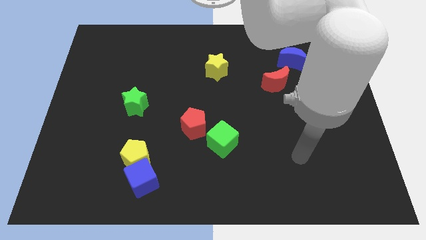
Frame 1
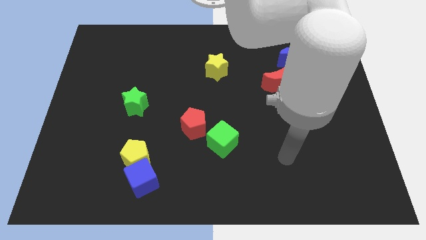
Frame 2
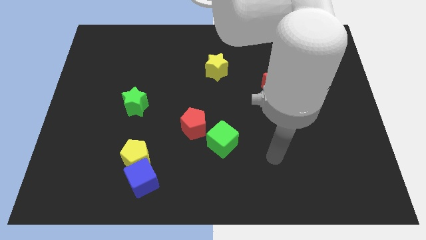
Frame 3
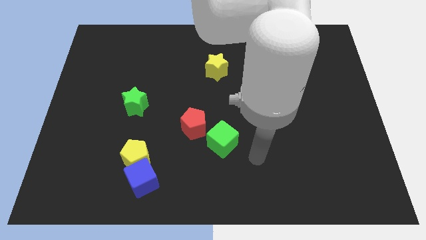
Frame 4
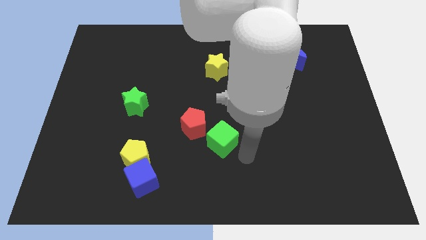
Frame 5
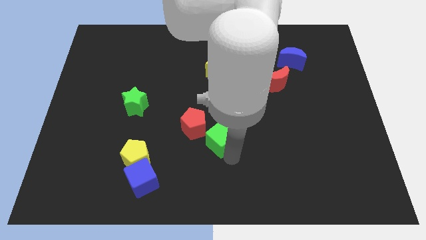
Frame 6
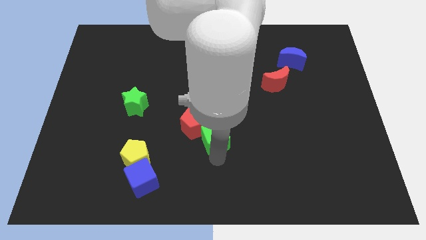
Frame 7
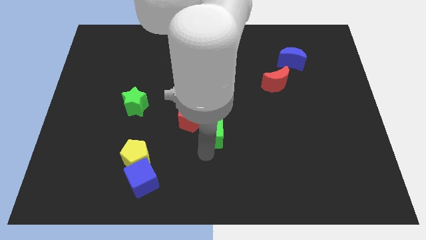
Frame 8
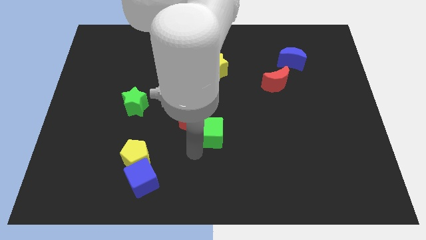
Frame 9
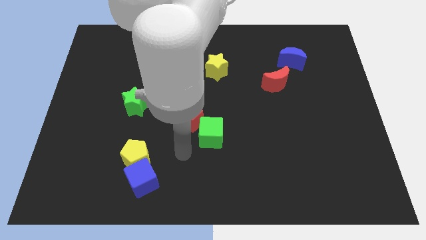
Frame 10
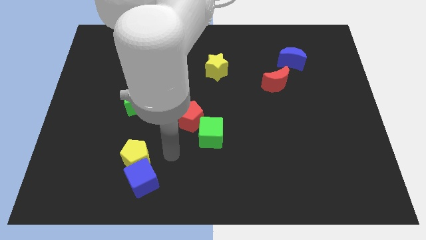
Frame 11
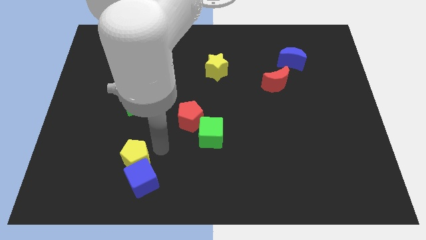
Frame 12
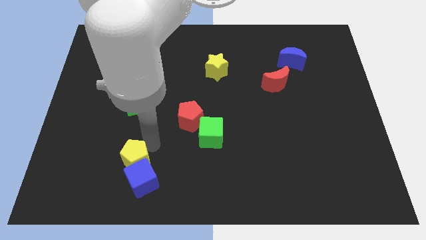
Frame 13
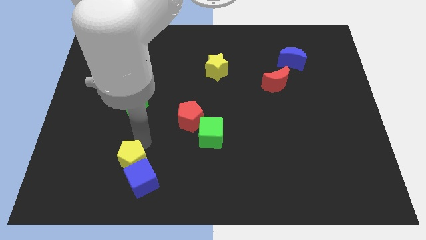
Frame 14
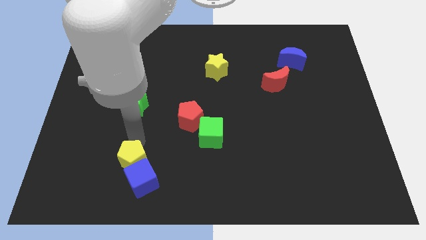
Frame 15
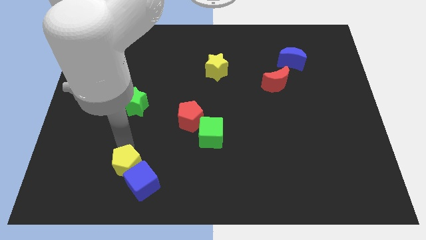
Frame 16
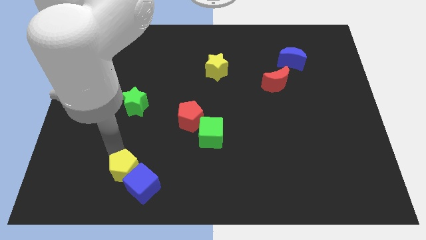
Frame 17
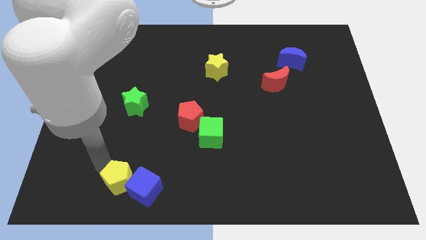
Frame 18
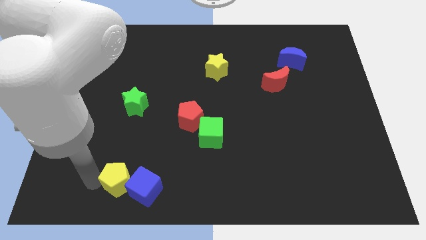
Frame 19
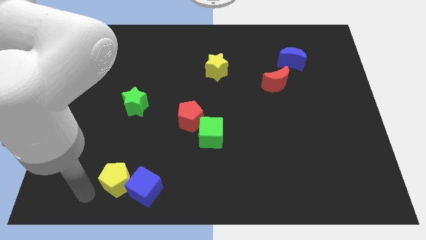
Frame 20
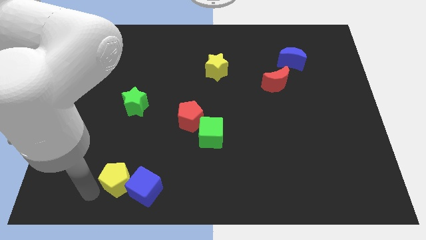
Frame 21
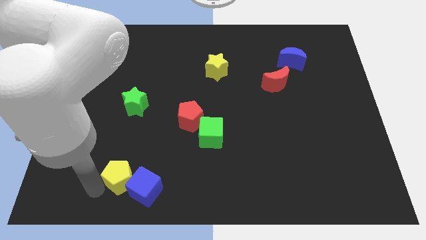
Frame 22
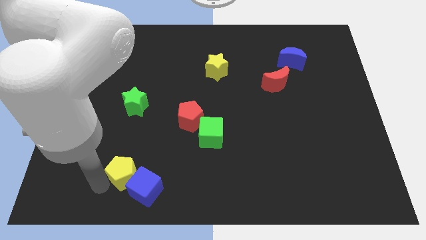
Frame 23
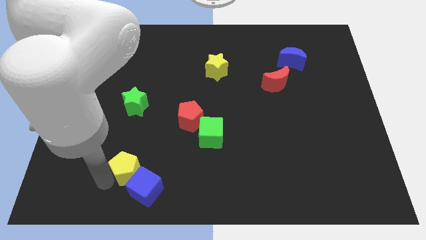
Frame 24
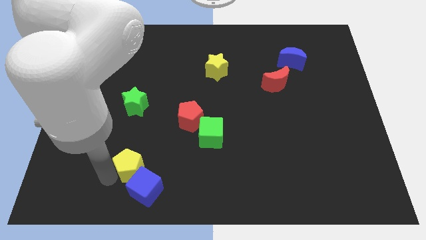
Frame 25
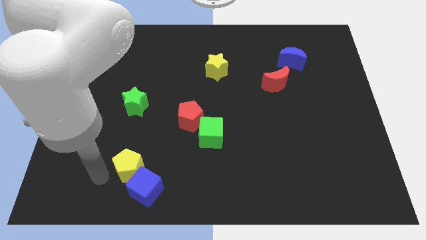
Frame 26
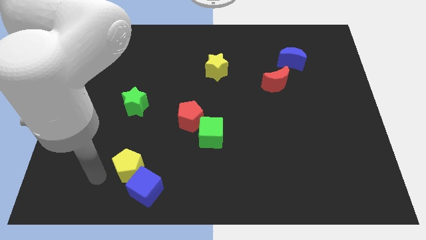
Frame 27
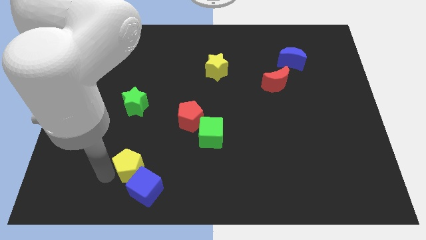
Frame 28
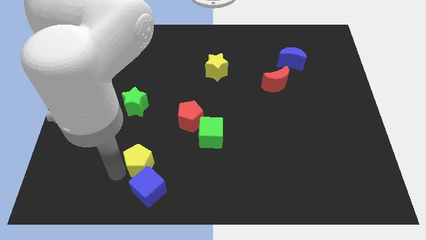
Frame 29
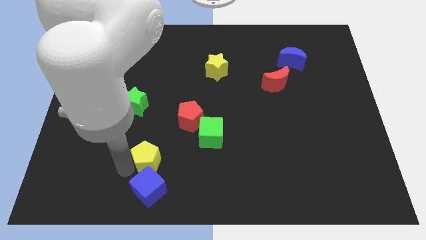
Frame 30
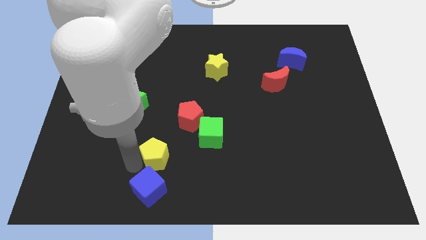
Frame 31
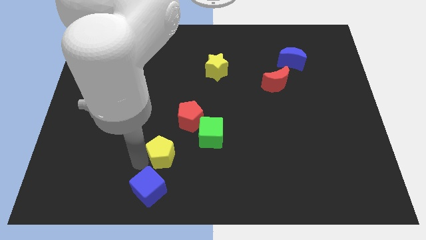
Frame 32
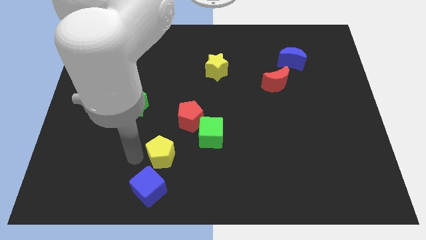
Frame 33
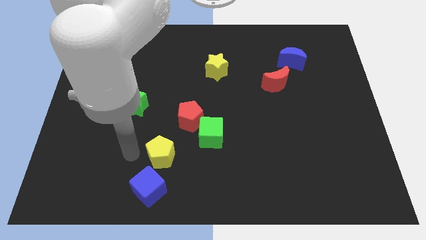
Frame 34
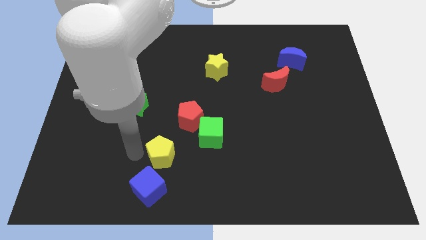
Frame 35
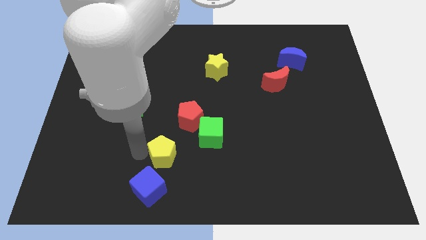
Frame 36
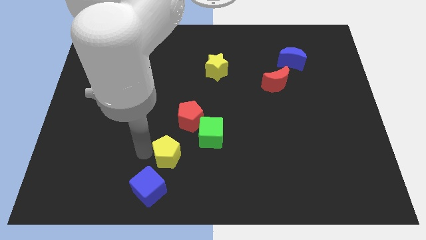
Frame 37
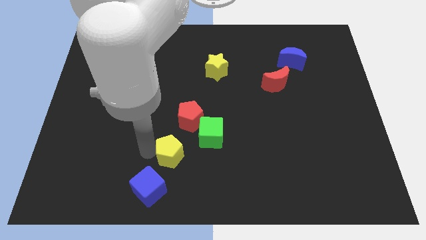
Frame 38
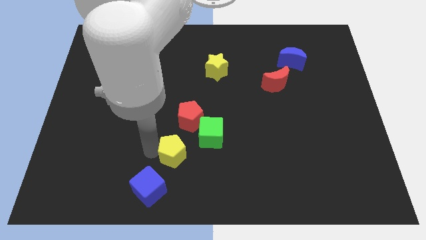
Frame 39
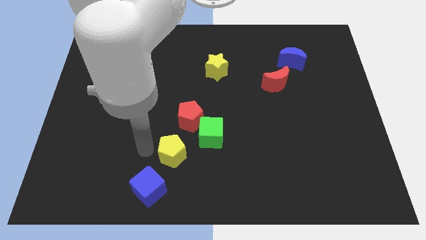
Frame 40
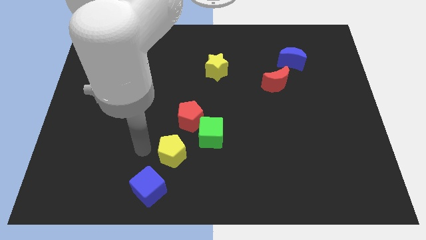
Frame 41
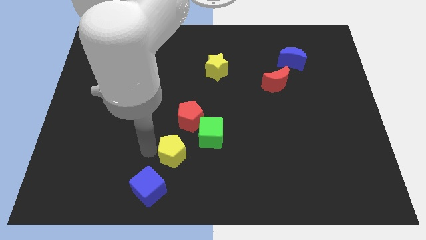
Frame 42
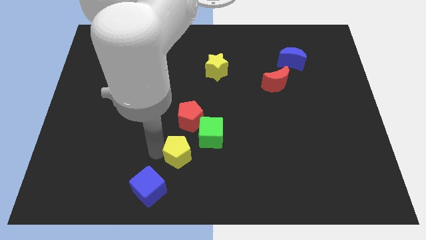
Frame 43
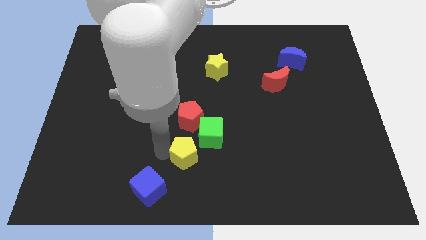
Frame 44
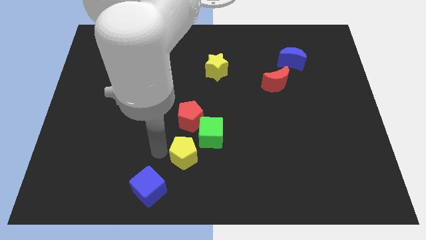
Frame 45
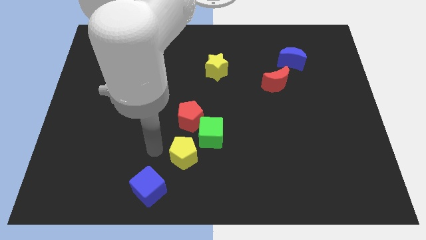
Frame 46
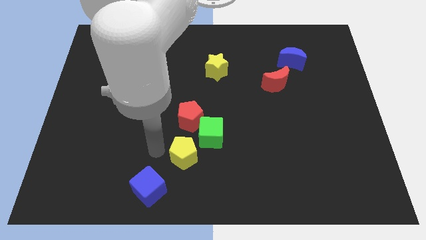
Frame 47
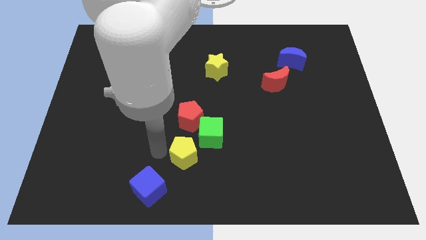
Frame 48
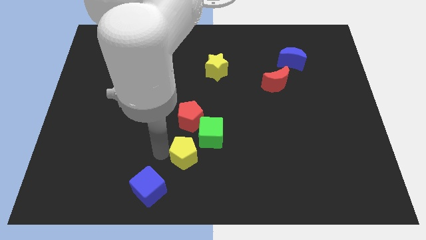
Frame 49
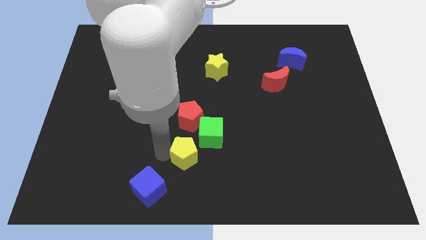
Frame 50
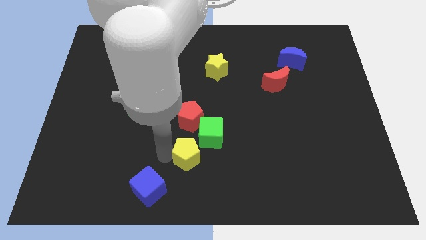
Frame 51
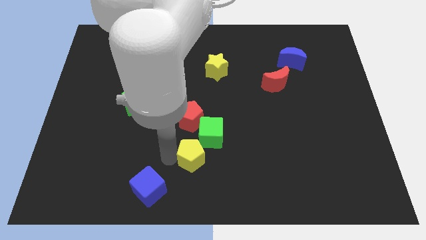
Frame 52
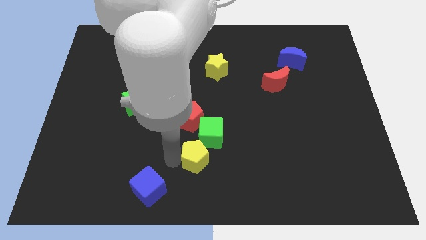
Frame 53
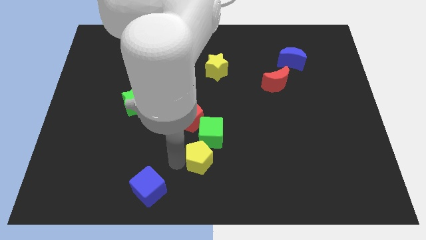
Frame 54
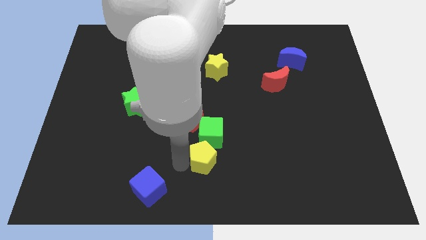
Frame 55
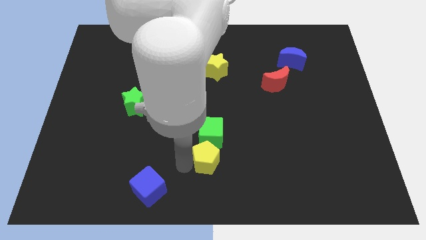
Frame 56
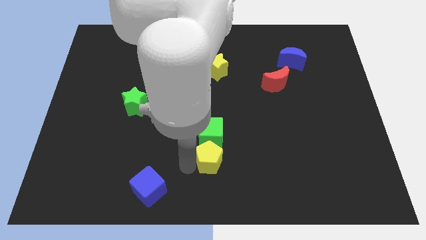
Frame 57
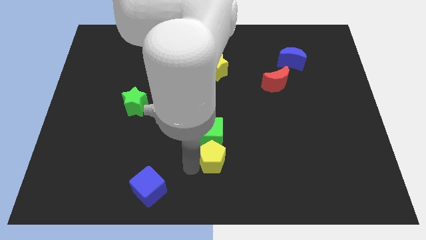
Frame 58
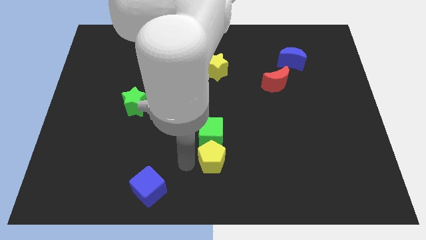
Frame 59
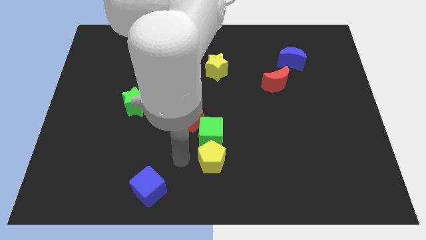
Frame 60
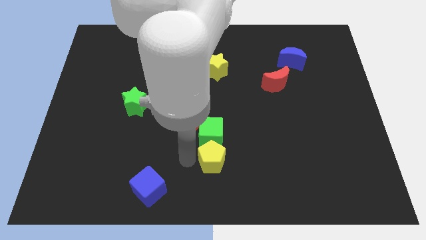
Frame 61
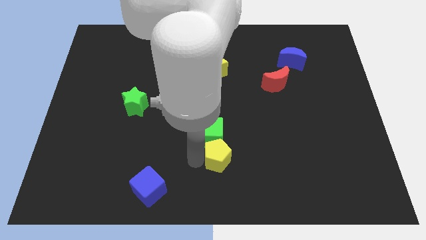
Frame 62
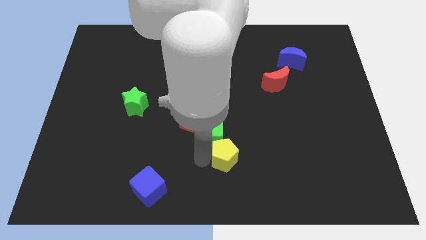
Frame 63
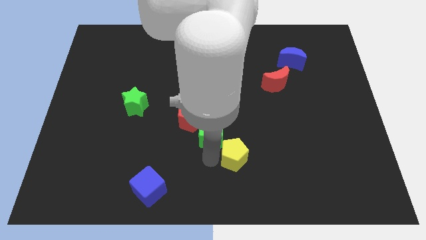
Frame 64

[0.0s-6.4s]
push the yellow pentagon to the right

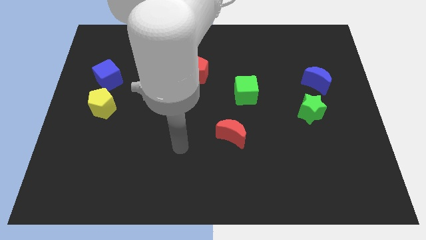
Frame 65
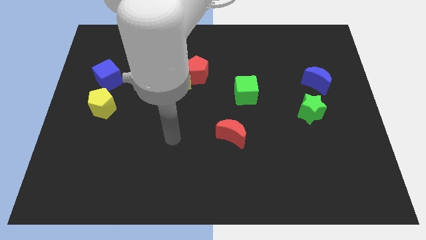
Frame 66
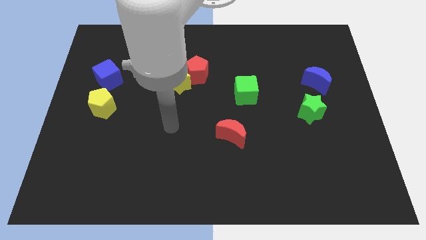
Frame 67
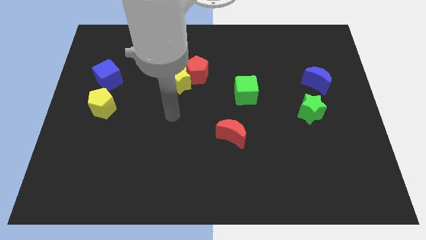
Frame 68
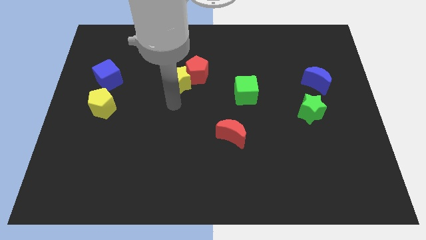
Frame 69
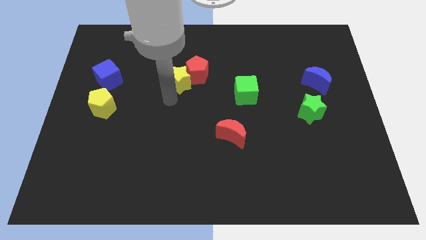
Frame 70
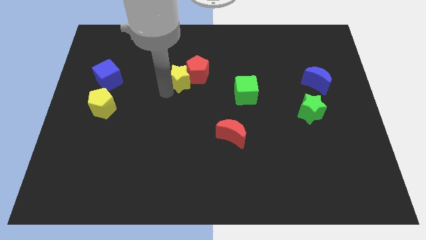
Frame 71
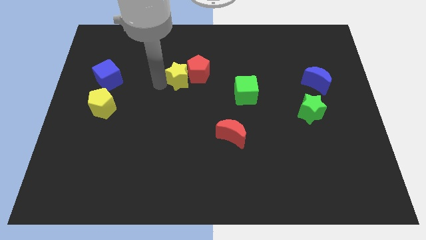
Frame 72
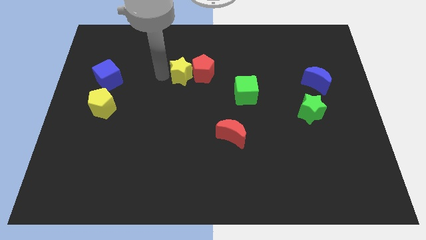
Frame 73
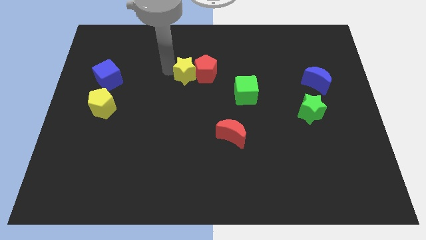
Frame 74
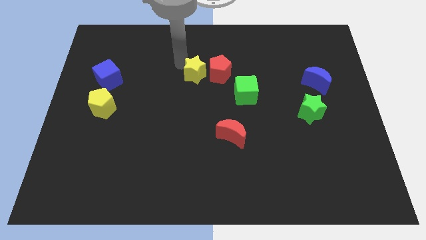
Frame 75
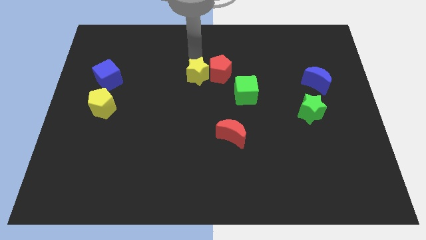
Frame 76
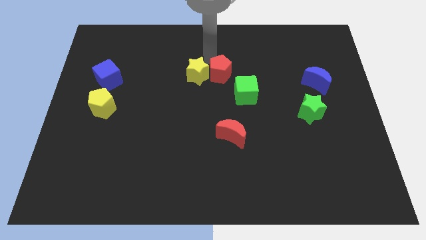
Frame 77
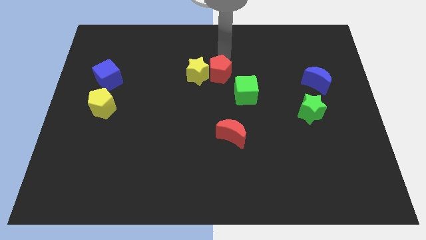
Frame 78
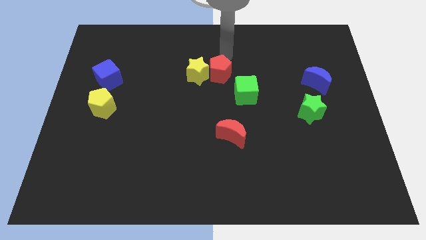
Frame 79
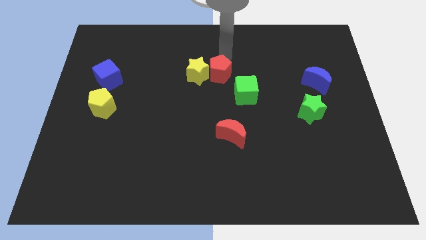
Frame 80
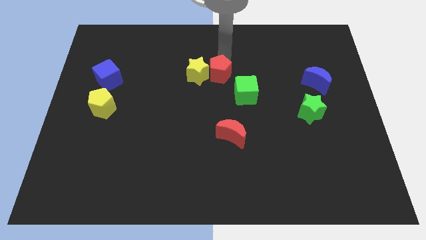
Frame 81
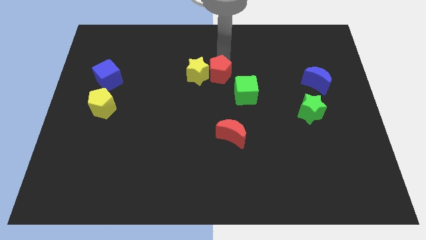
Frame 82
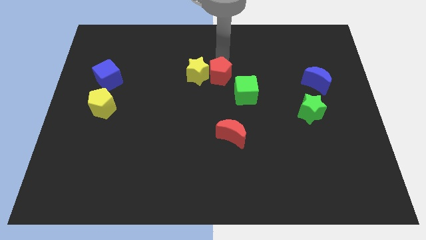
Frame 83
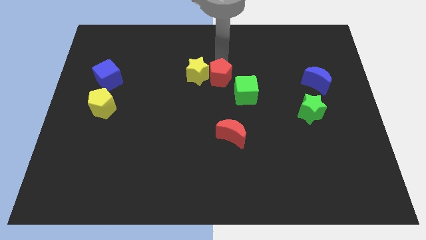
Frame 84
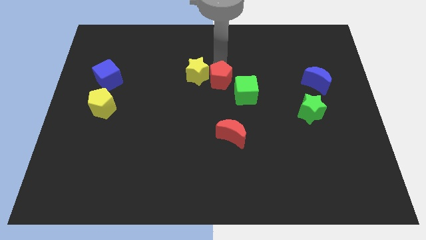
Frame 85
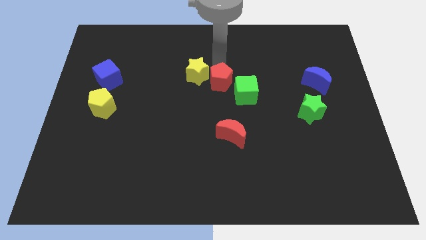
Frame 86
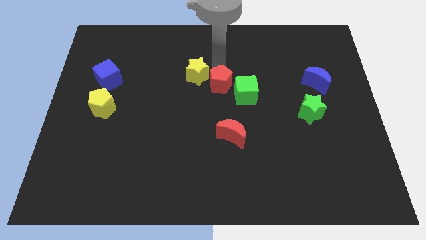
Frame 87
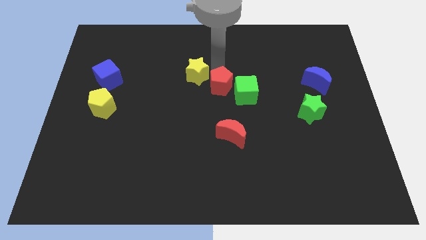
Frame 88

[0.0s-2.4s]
move the red pentagon slightly down and then to the right
